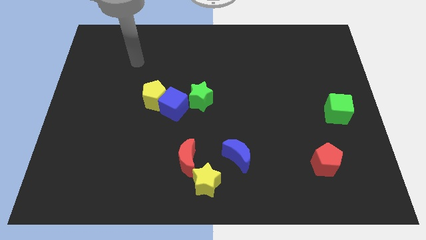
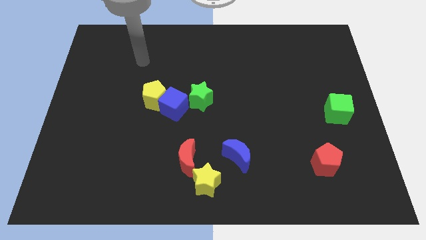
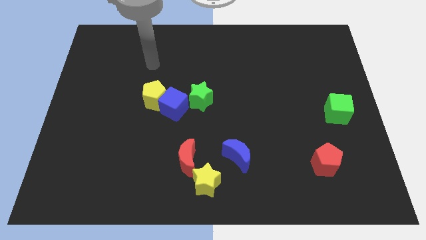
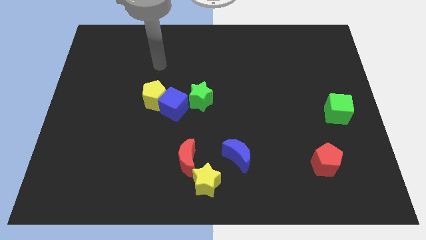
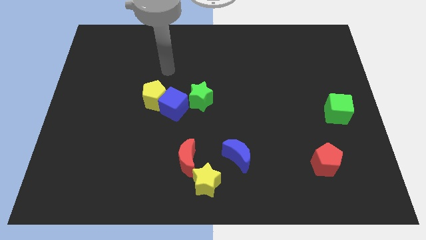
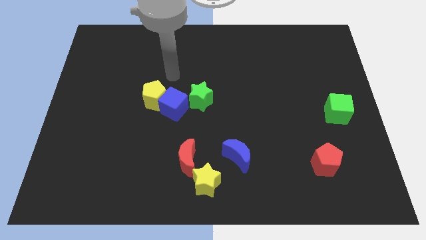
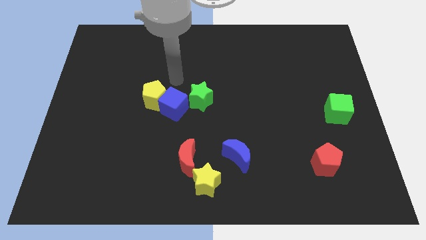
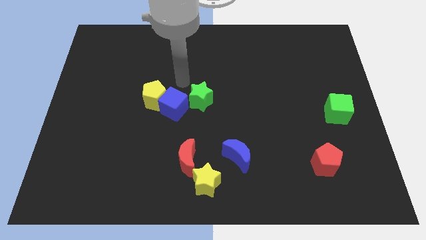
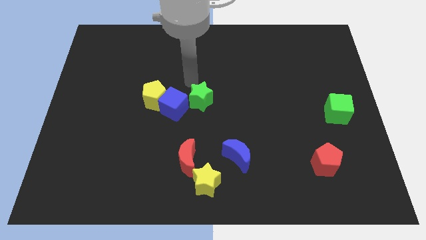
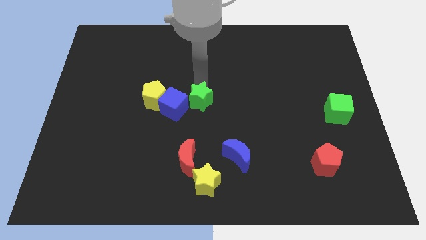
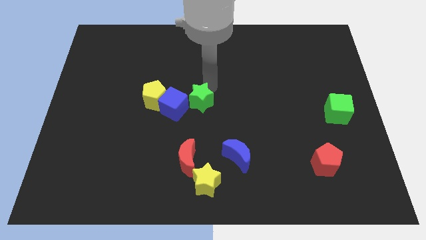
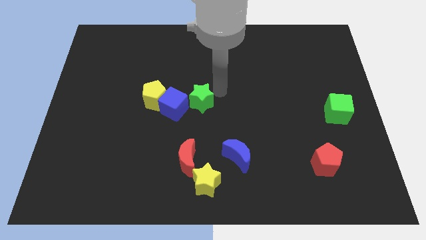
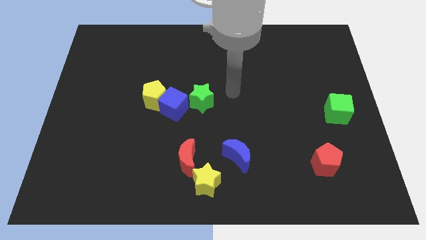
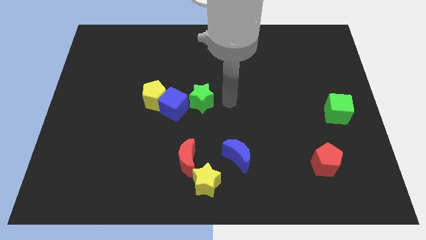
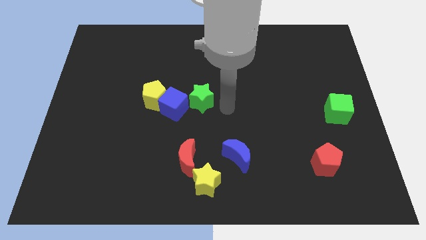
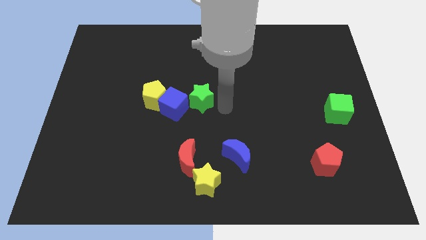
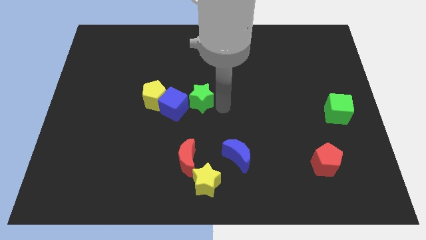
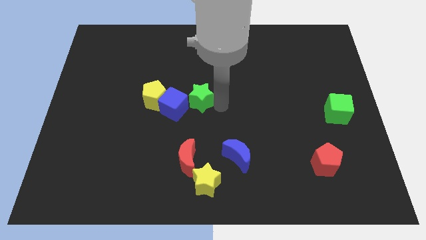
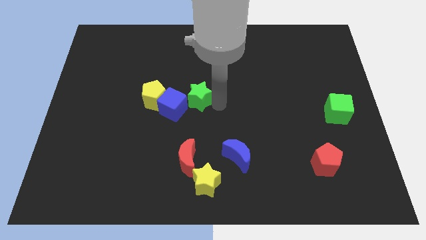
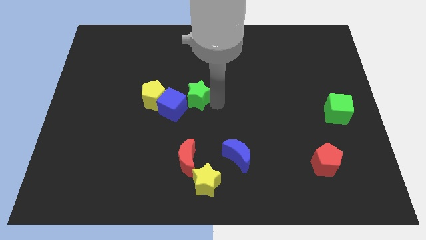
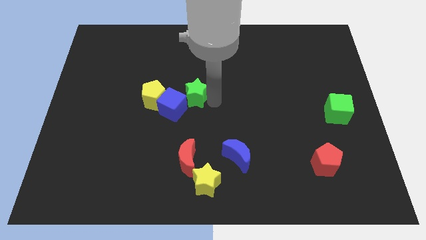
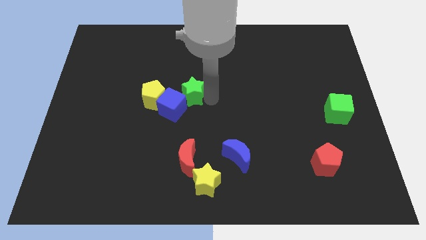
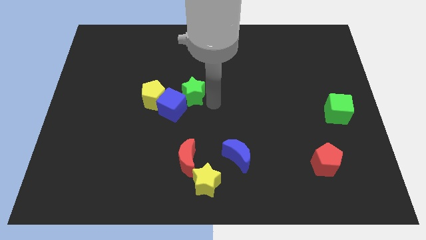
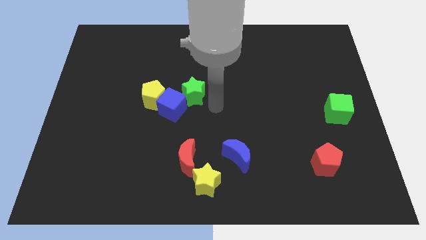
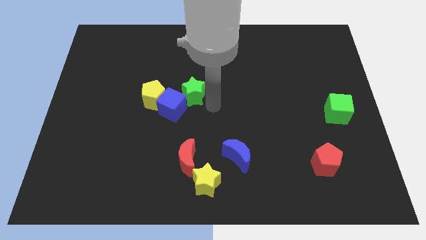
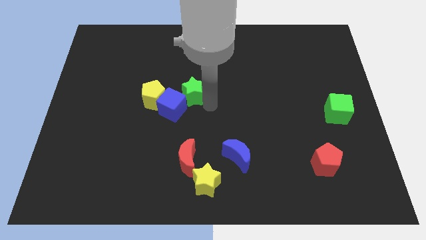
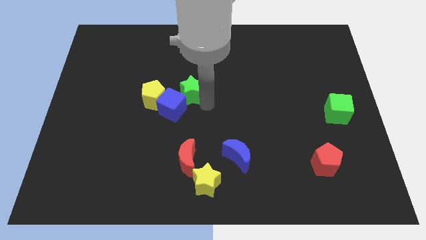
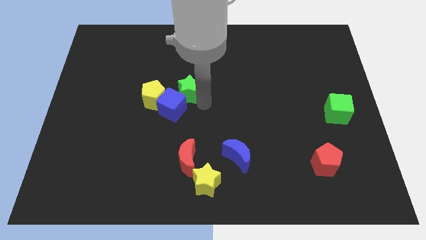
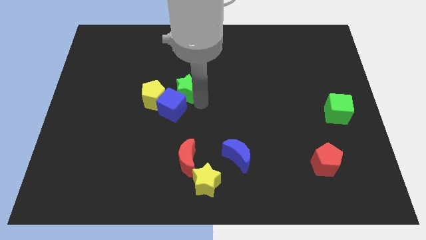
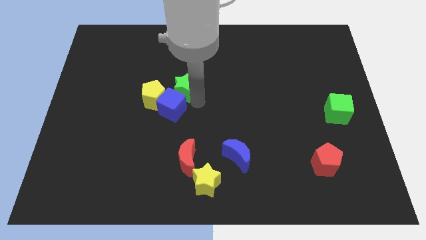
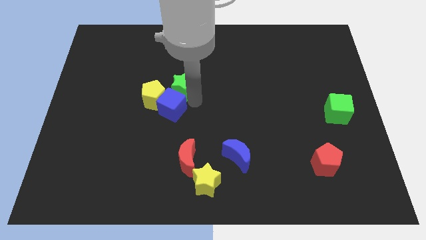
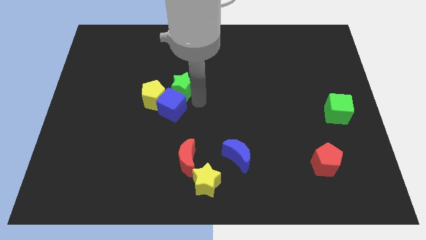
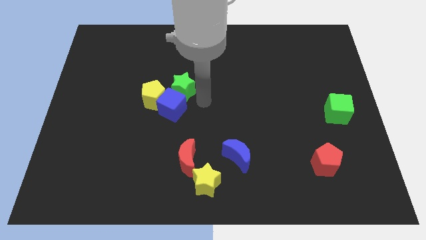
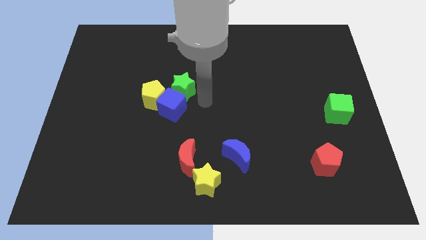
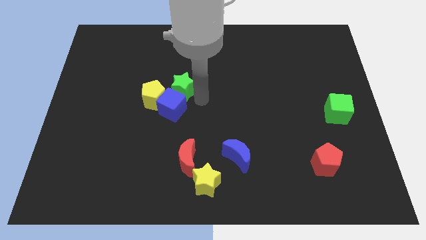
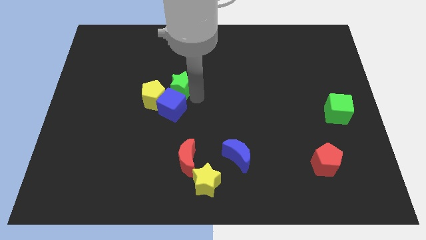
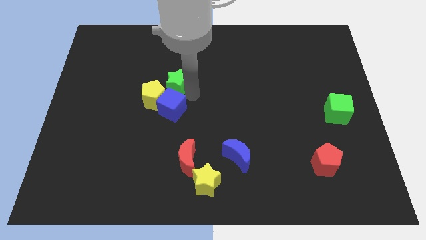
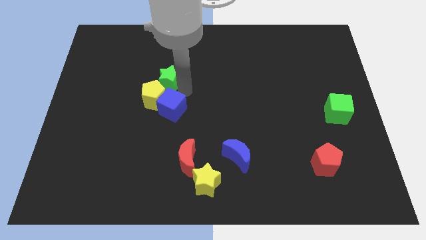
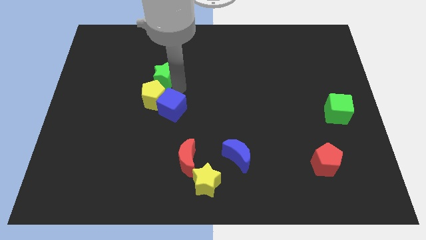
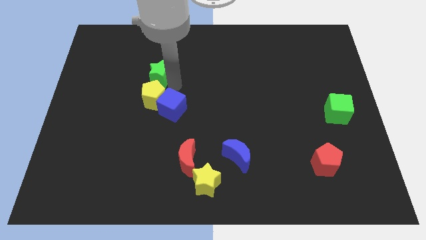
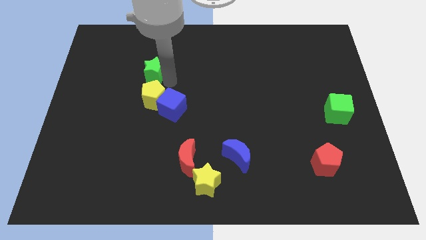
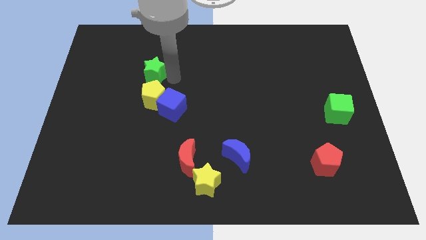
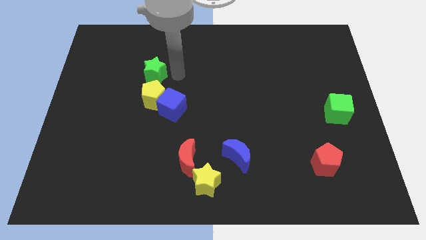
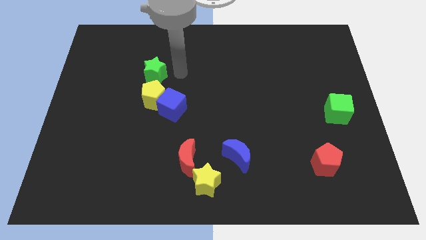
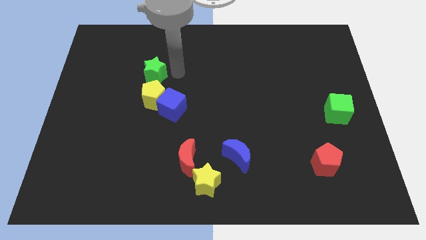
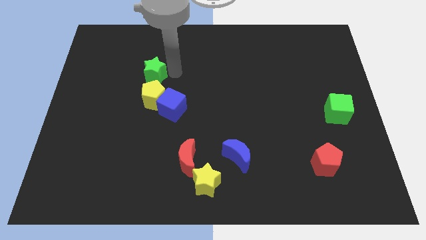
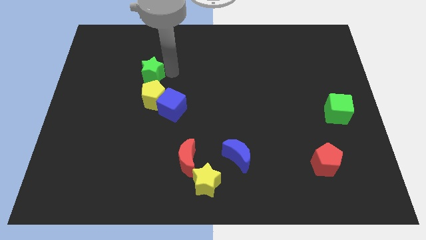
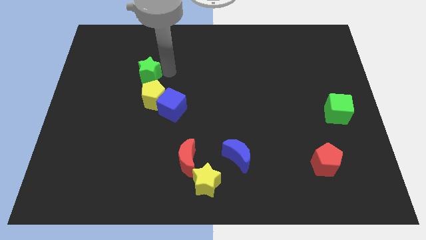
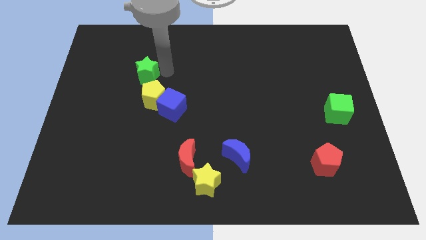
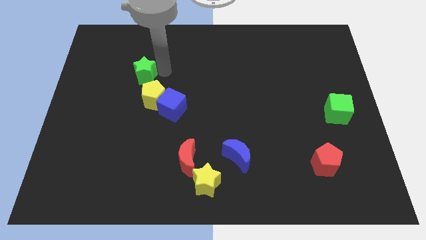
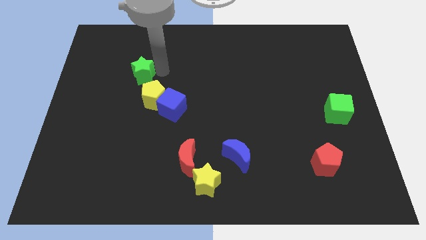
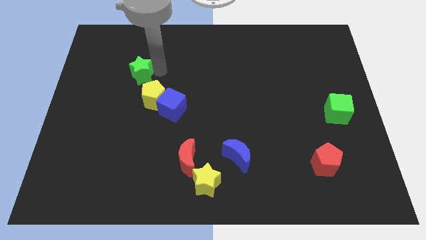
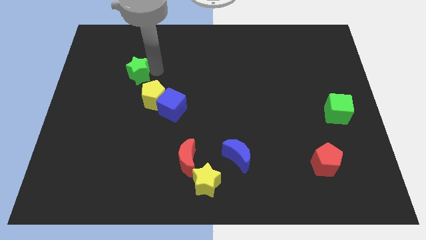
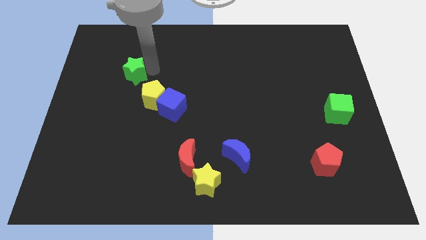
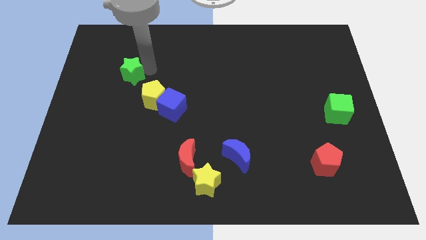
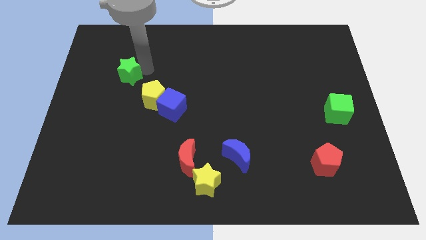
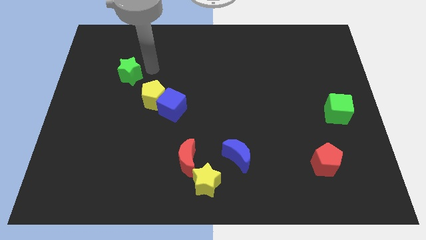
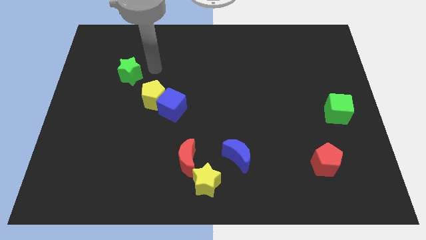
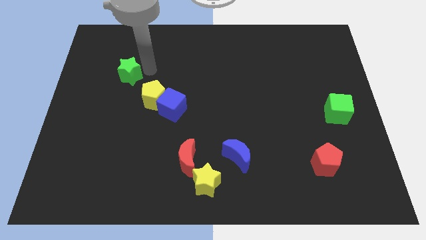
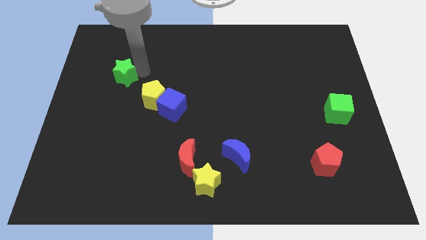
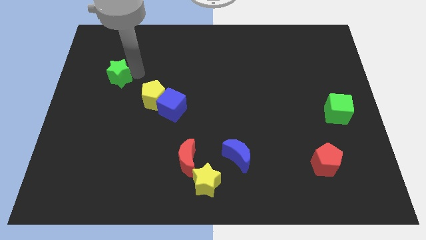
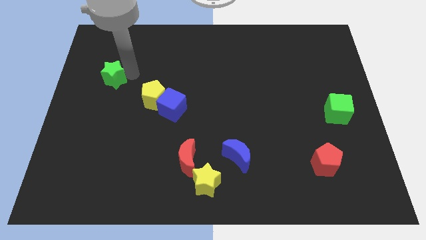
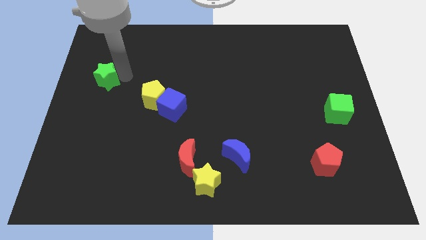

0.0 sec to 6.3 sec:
put the green star to the center left
